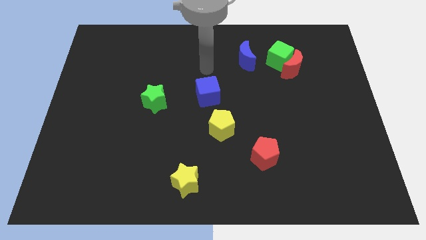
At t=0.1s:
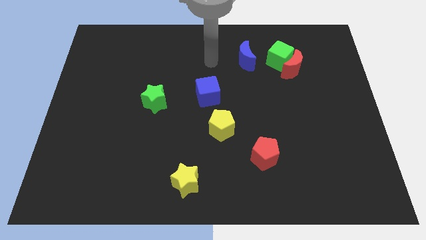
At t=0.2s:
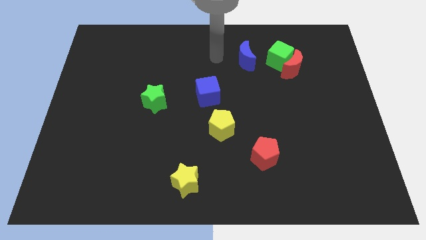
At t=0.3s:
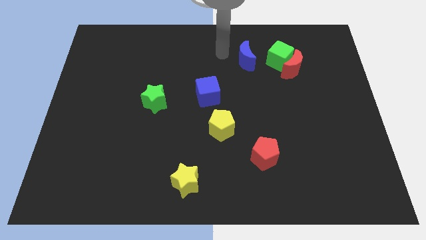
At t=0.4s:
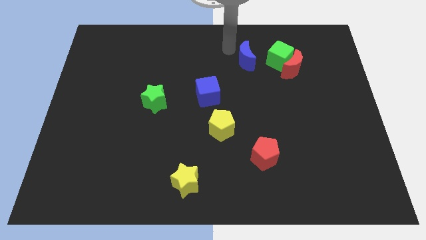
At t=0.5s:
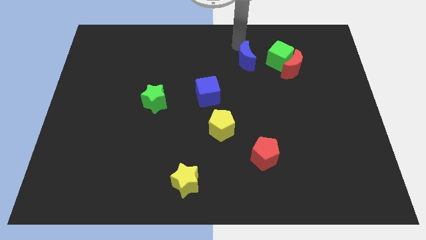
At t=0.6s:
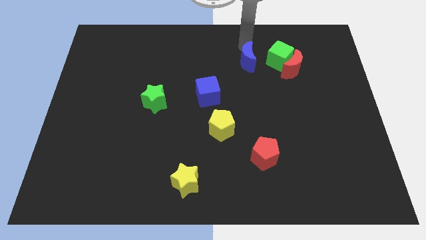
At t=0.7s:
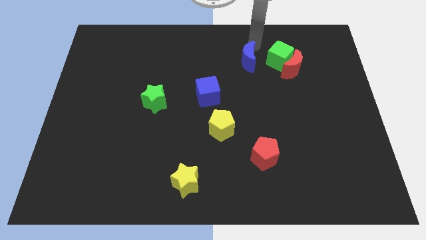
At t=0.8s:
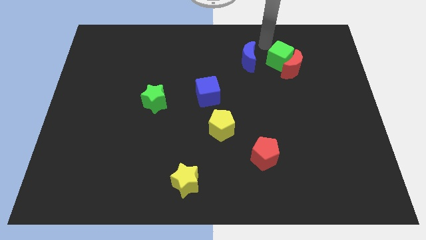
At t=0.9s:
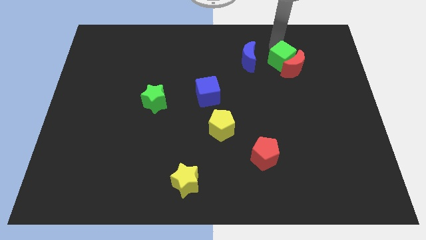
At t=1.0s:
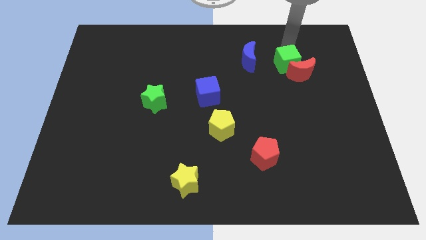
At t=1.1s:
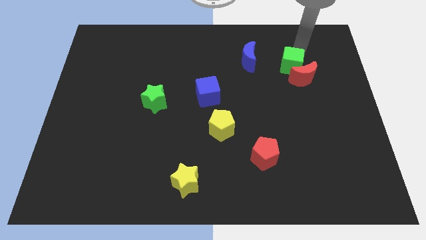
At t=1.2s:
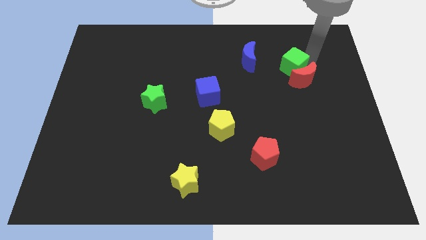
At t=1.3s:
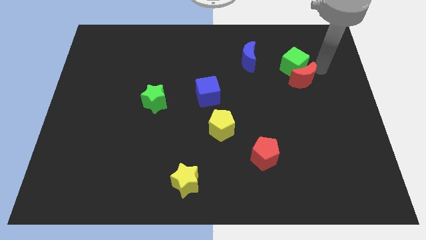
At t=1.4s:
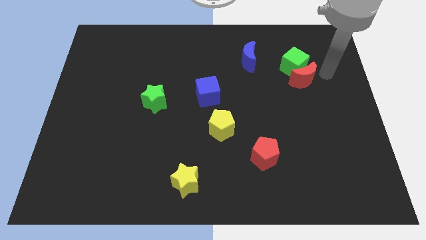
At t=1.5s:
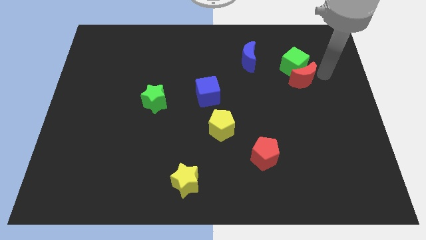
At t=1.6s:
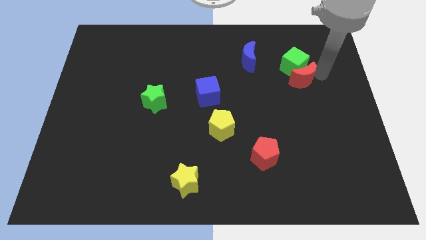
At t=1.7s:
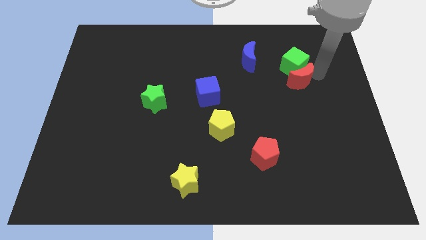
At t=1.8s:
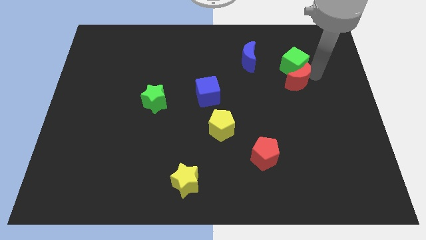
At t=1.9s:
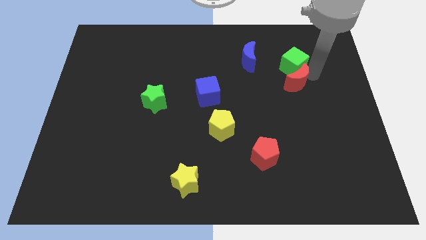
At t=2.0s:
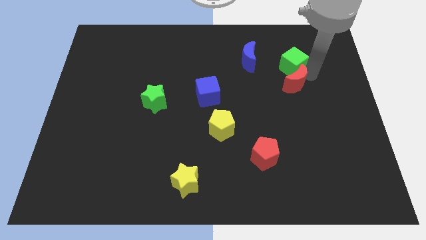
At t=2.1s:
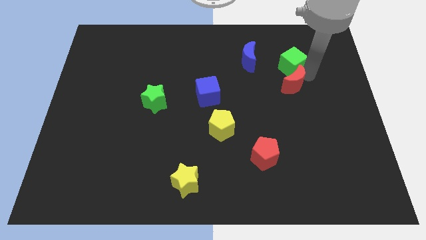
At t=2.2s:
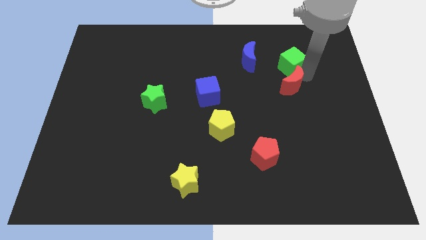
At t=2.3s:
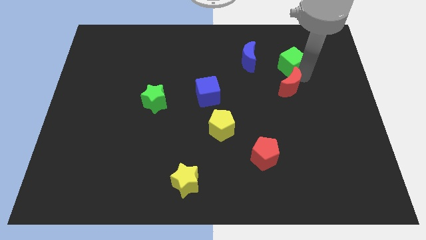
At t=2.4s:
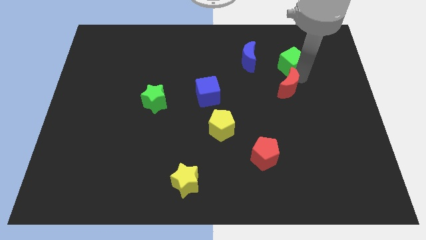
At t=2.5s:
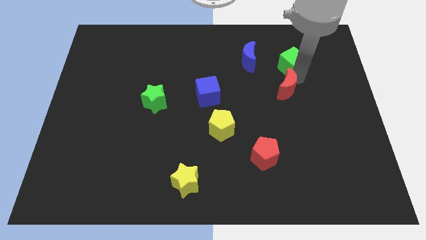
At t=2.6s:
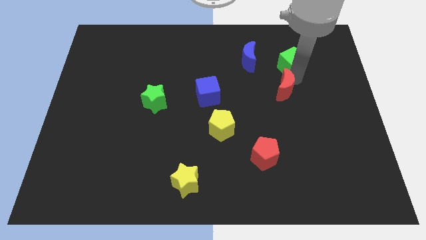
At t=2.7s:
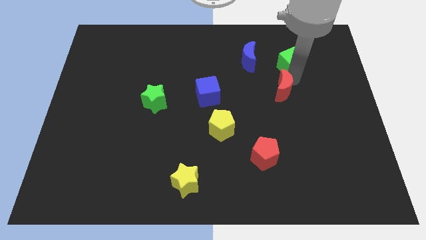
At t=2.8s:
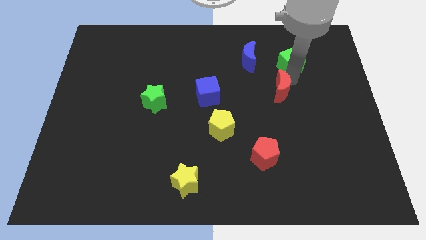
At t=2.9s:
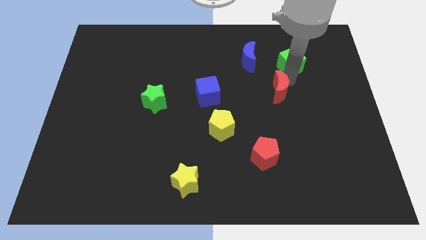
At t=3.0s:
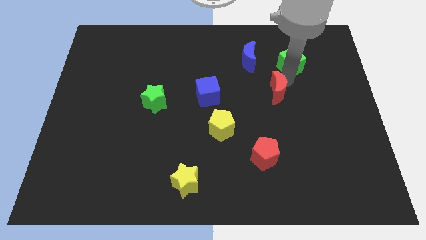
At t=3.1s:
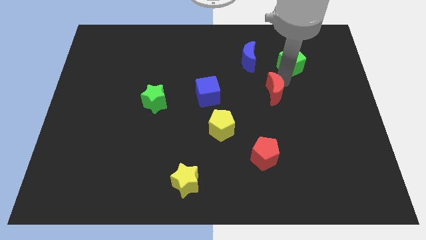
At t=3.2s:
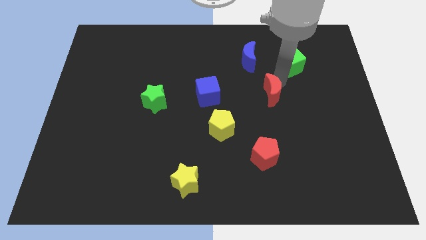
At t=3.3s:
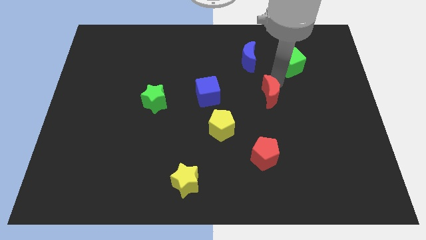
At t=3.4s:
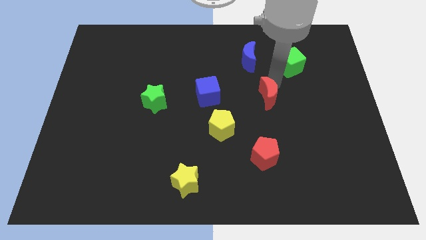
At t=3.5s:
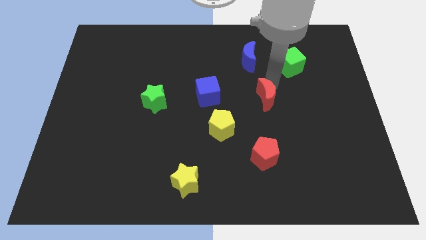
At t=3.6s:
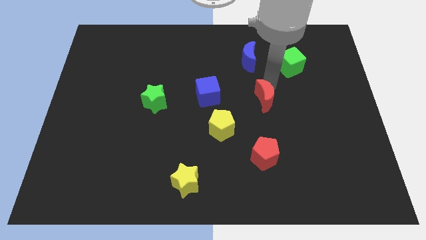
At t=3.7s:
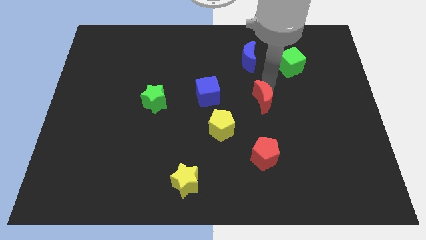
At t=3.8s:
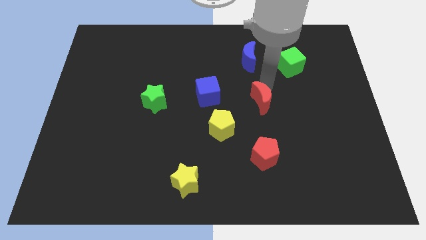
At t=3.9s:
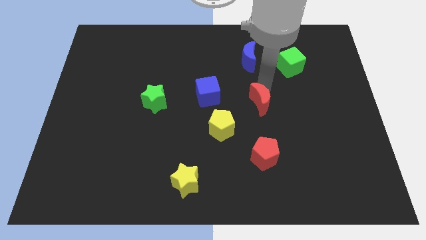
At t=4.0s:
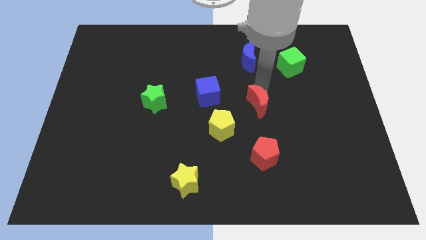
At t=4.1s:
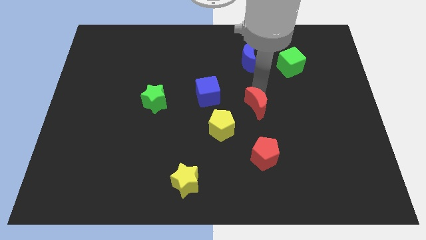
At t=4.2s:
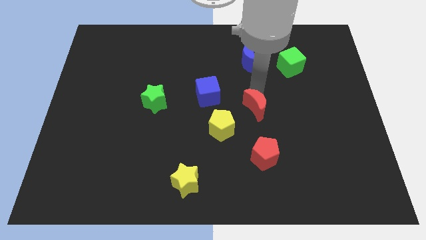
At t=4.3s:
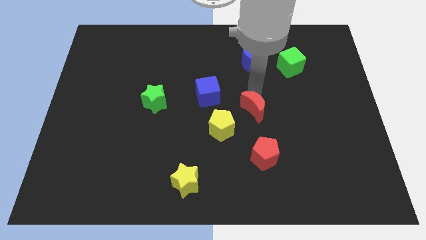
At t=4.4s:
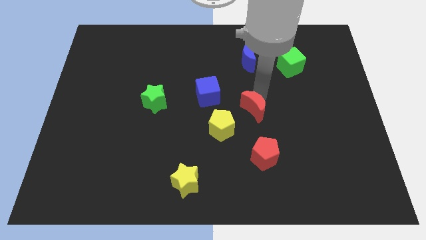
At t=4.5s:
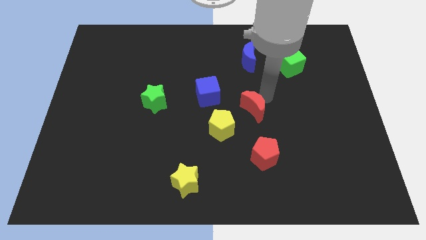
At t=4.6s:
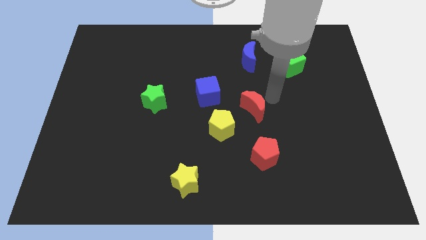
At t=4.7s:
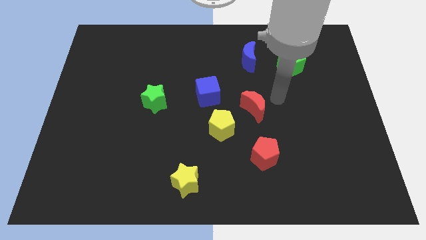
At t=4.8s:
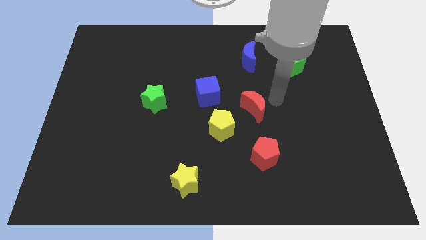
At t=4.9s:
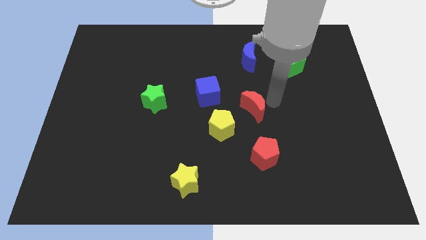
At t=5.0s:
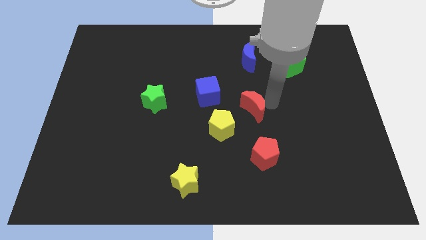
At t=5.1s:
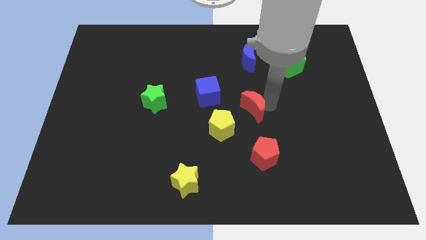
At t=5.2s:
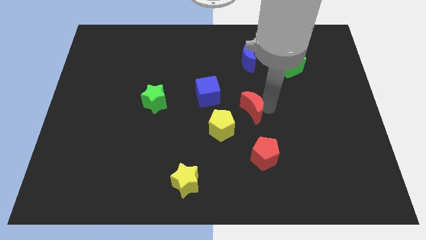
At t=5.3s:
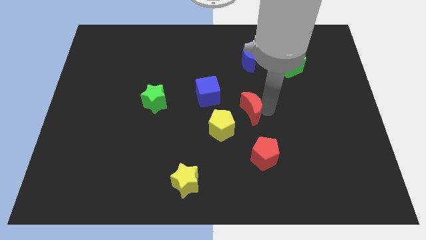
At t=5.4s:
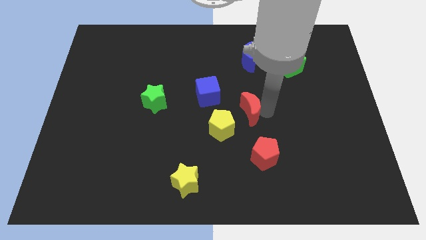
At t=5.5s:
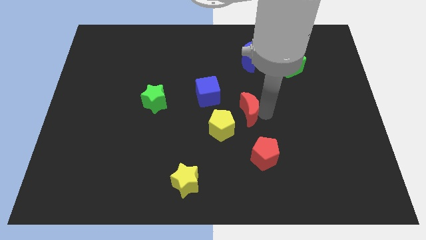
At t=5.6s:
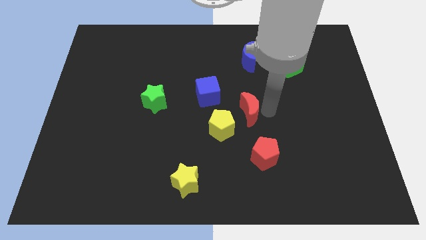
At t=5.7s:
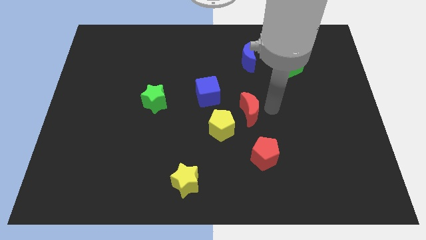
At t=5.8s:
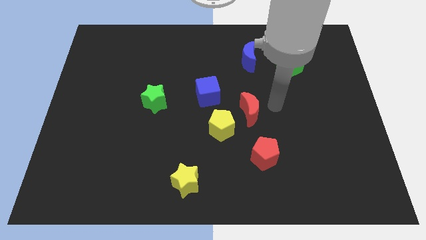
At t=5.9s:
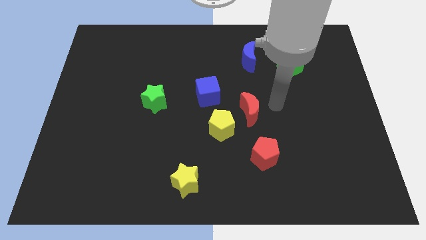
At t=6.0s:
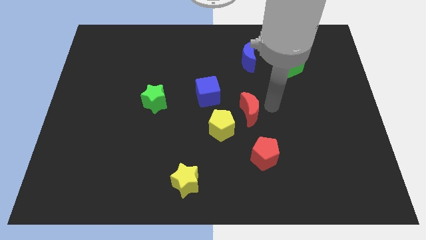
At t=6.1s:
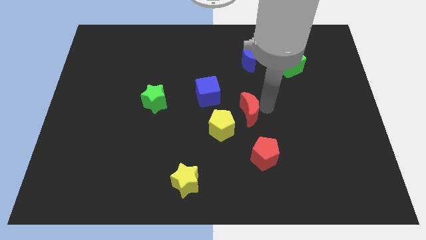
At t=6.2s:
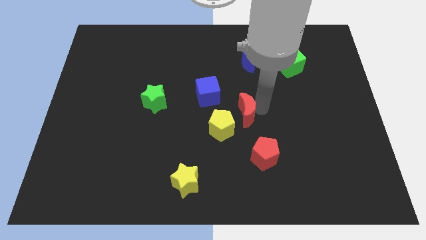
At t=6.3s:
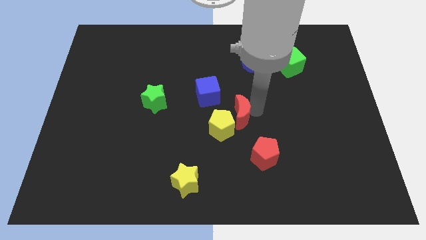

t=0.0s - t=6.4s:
put the red moon next to the yellow pentagon

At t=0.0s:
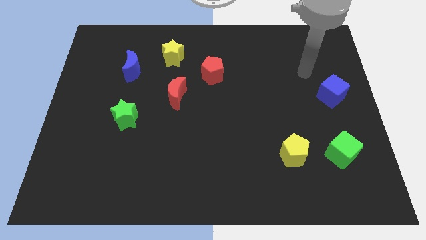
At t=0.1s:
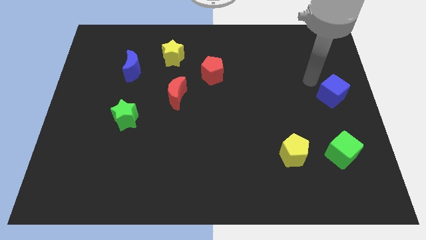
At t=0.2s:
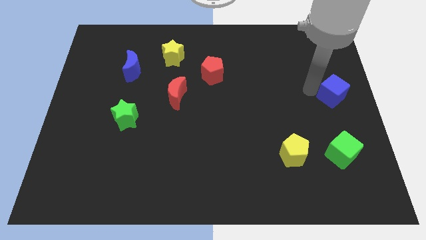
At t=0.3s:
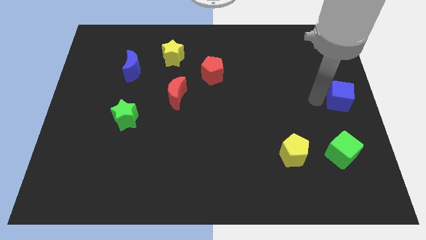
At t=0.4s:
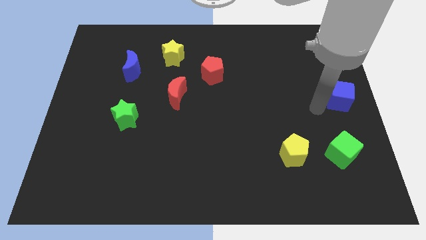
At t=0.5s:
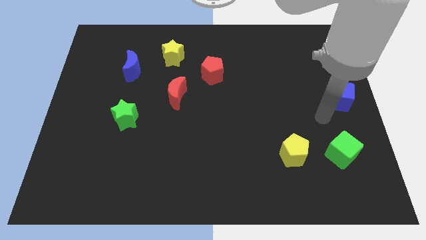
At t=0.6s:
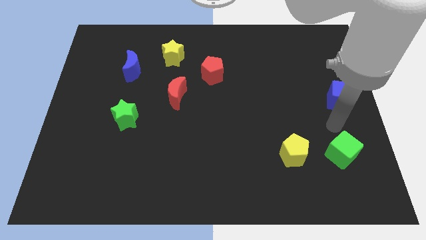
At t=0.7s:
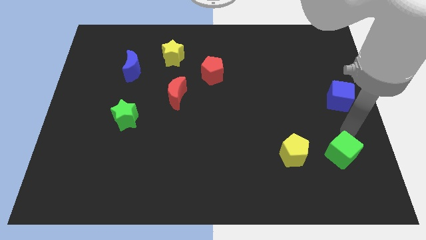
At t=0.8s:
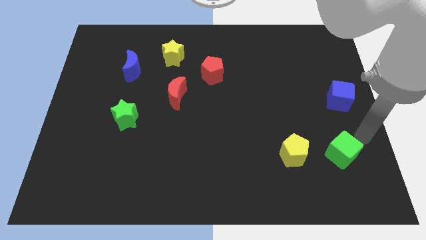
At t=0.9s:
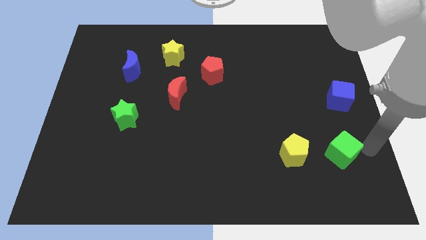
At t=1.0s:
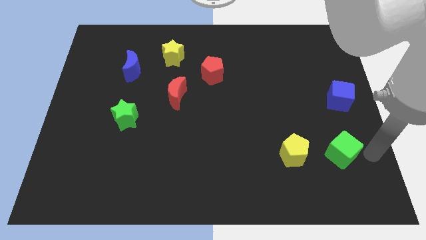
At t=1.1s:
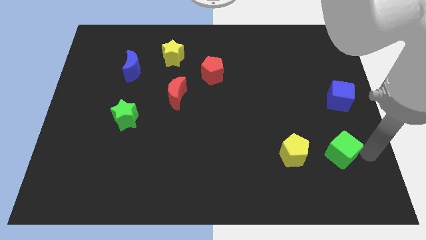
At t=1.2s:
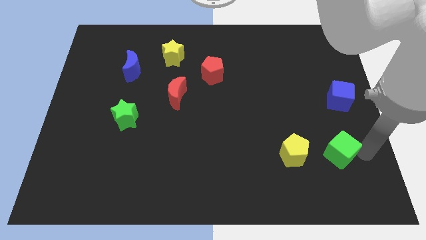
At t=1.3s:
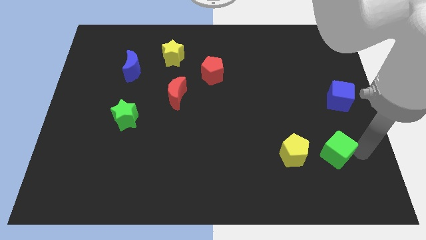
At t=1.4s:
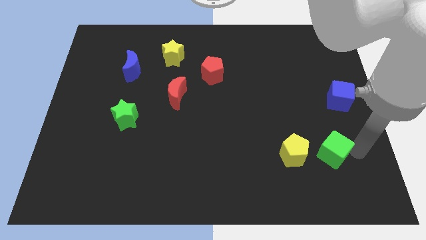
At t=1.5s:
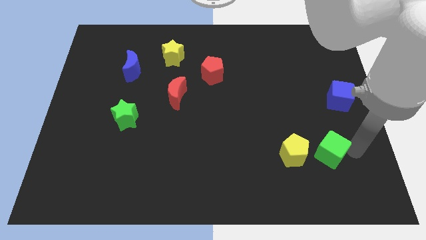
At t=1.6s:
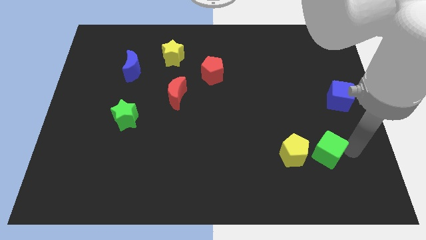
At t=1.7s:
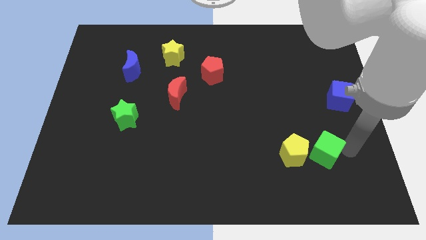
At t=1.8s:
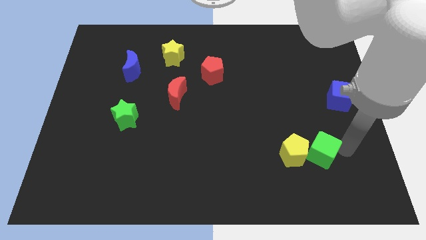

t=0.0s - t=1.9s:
push the green cube towards the yellow pentagon
